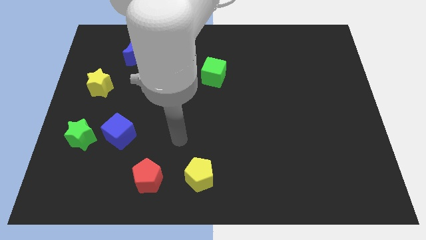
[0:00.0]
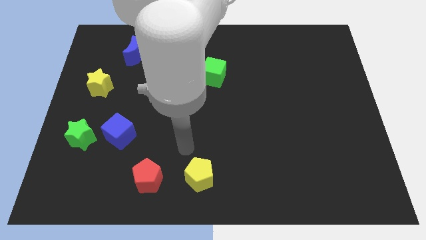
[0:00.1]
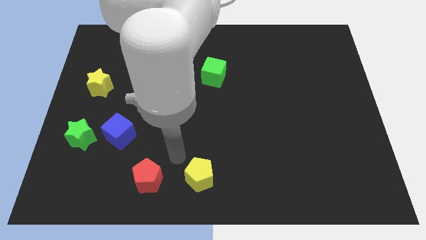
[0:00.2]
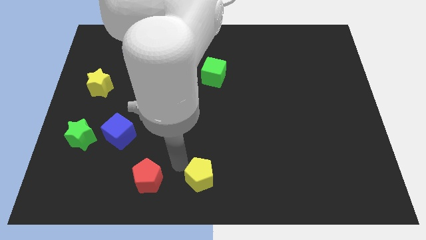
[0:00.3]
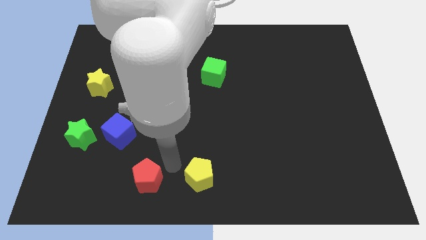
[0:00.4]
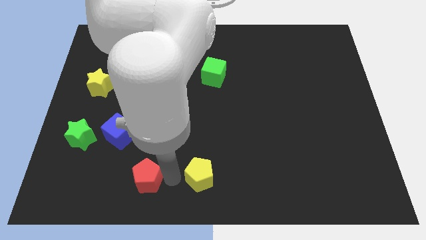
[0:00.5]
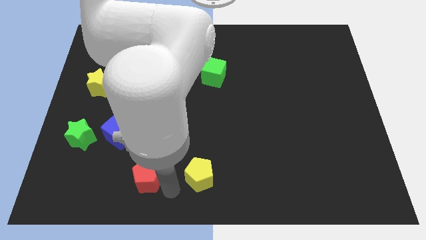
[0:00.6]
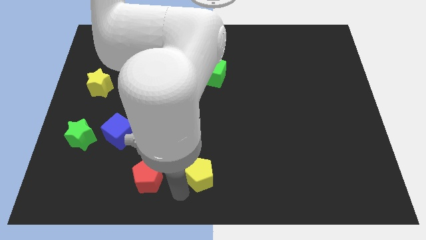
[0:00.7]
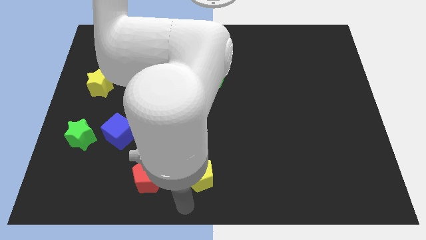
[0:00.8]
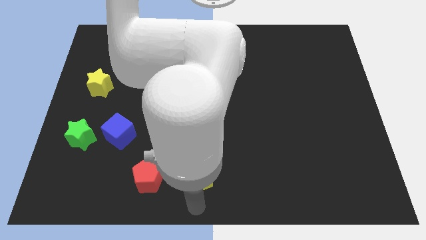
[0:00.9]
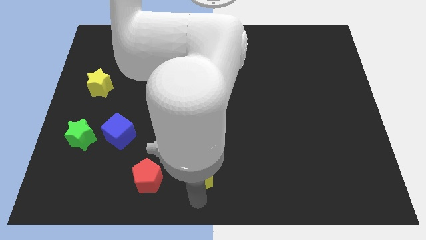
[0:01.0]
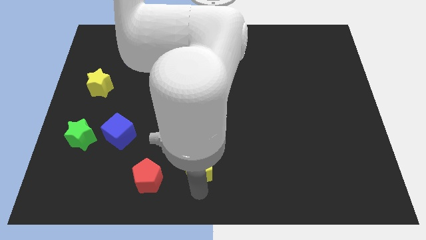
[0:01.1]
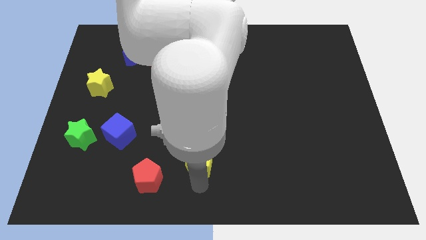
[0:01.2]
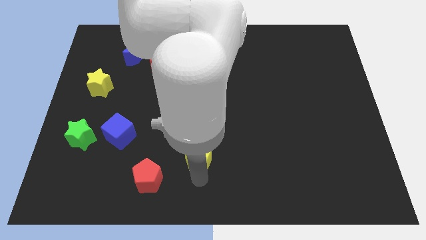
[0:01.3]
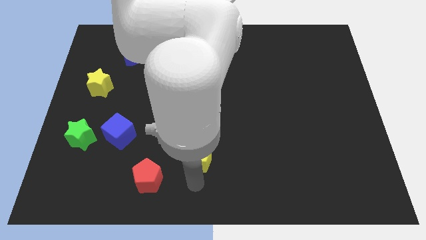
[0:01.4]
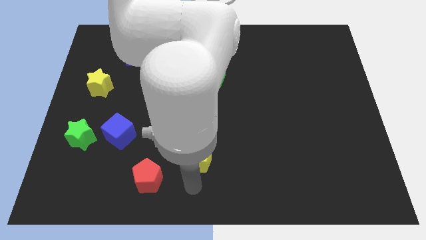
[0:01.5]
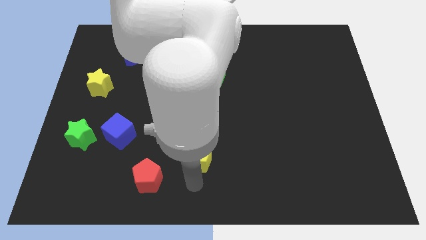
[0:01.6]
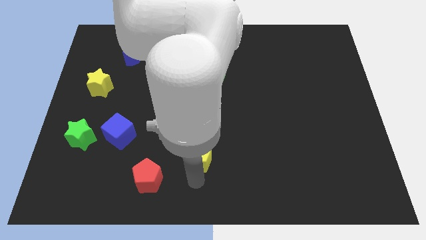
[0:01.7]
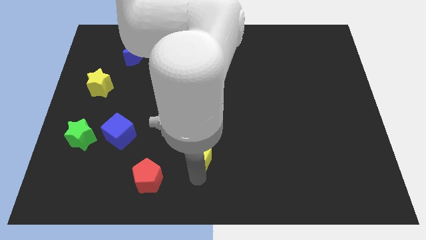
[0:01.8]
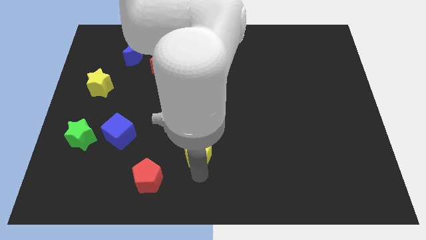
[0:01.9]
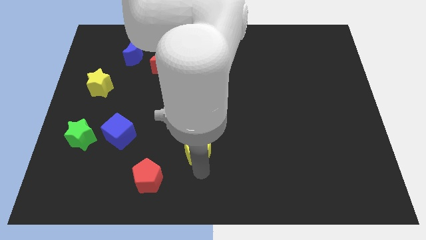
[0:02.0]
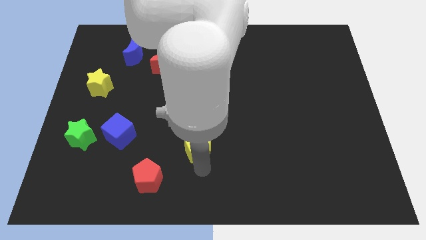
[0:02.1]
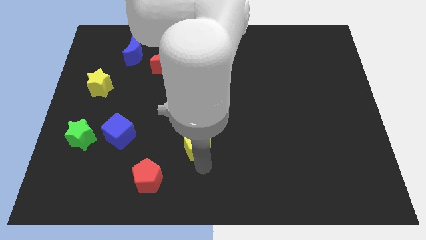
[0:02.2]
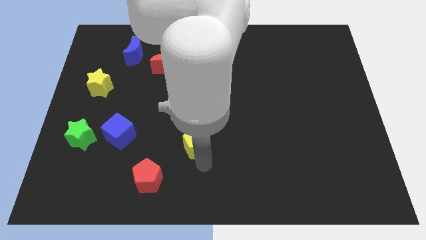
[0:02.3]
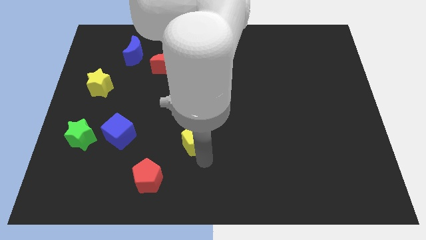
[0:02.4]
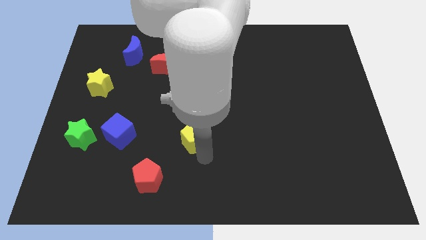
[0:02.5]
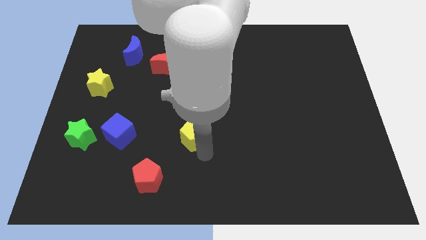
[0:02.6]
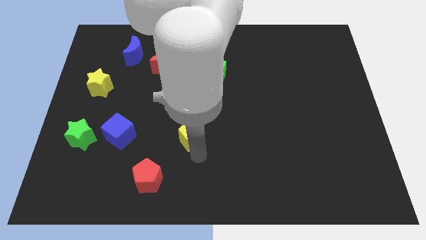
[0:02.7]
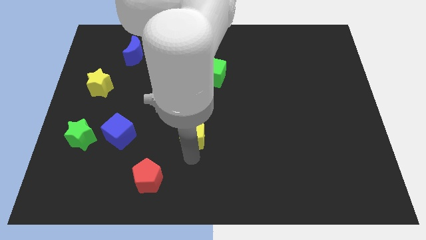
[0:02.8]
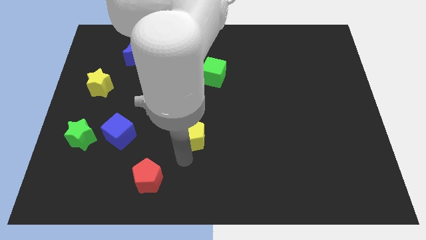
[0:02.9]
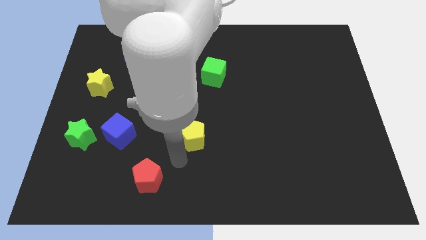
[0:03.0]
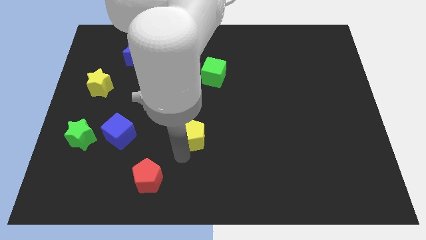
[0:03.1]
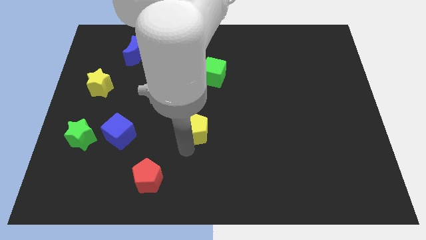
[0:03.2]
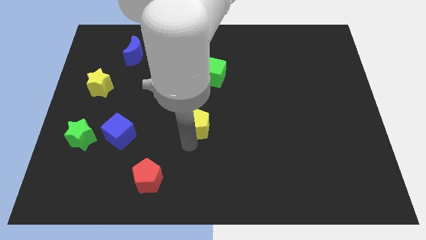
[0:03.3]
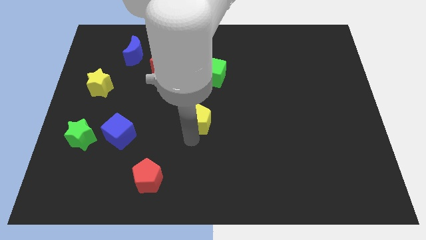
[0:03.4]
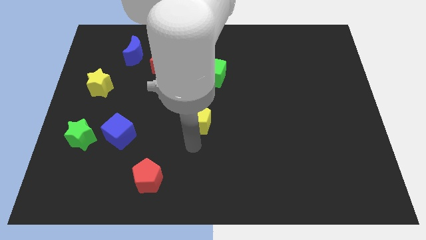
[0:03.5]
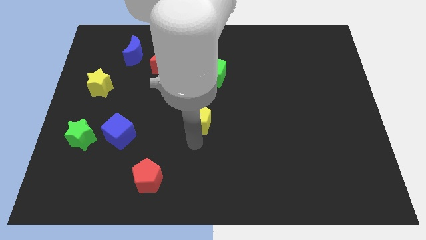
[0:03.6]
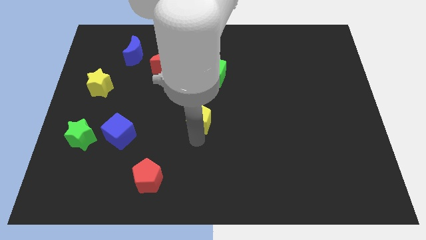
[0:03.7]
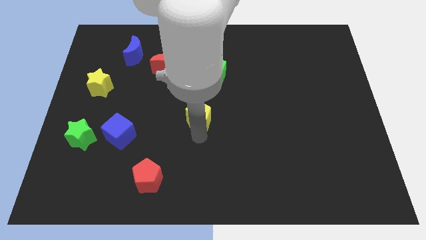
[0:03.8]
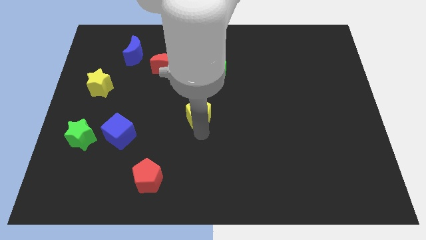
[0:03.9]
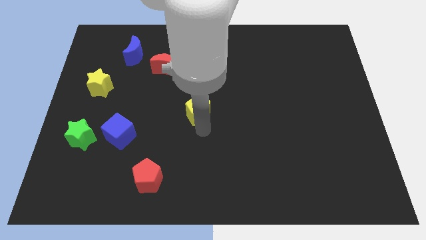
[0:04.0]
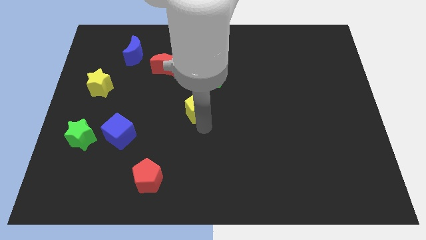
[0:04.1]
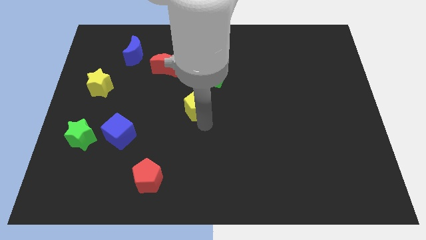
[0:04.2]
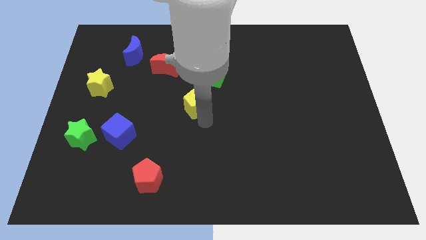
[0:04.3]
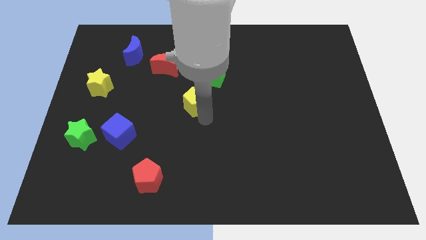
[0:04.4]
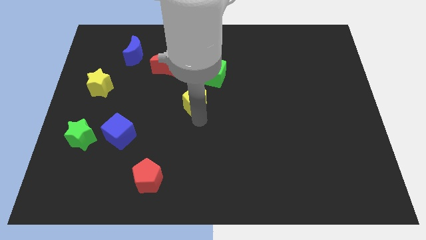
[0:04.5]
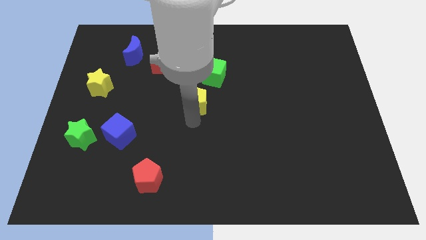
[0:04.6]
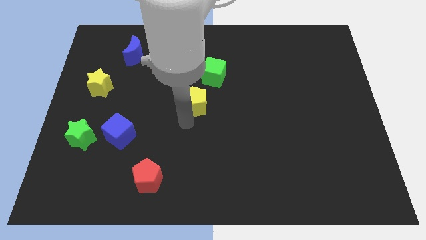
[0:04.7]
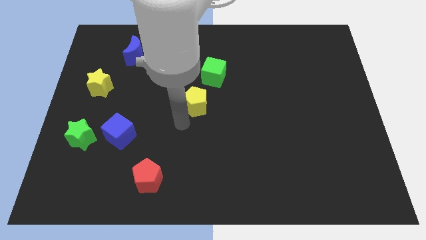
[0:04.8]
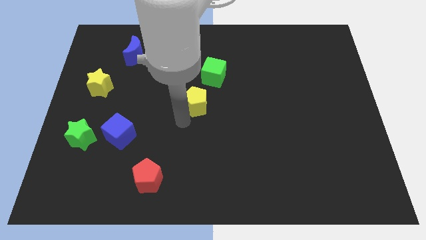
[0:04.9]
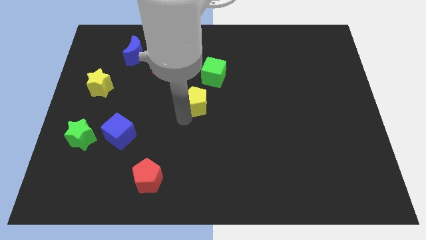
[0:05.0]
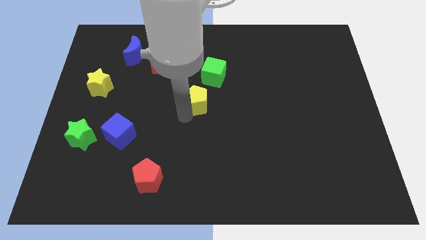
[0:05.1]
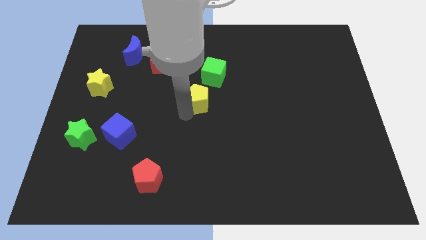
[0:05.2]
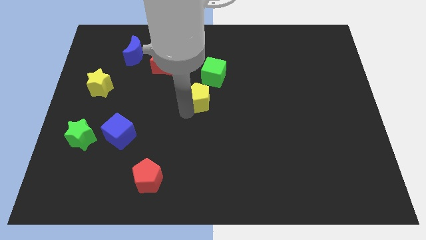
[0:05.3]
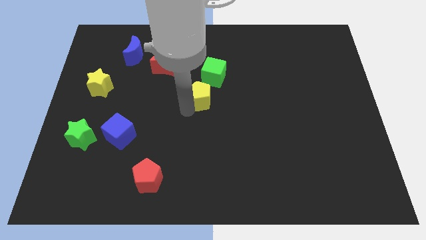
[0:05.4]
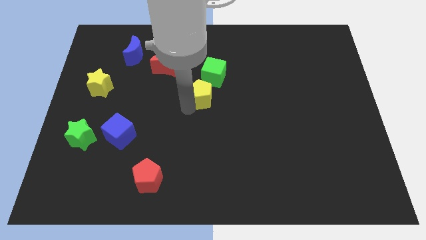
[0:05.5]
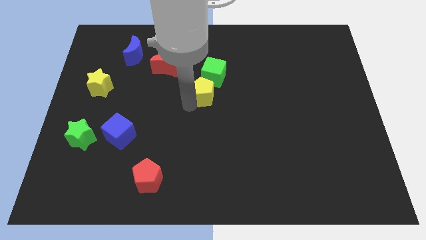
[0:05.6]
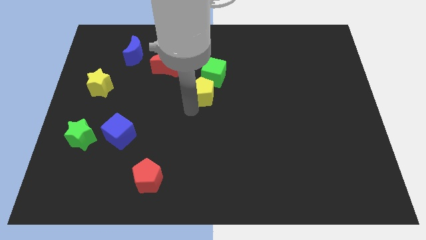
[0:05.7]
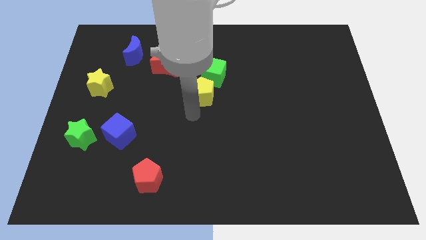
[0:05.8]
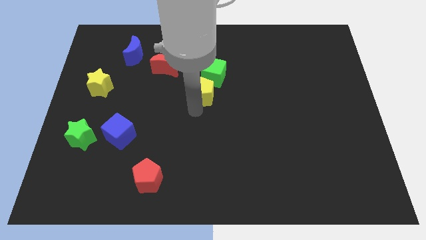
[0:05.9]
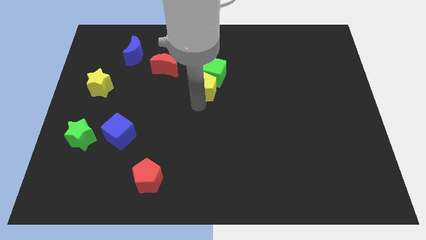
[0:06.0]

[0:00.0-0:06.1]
slide the yellow pentagon to the green cube
